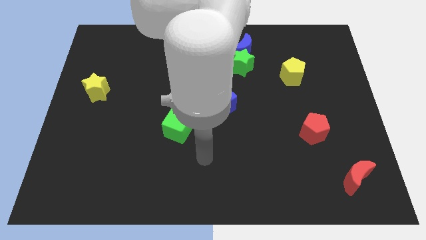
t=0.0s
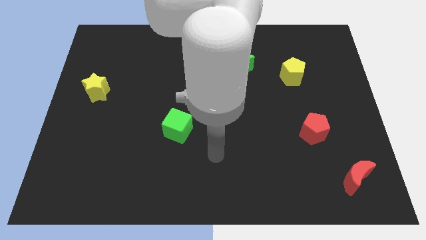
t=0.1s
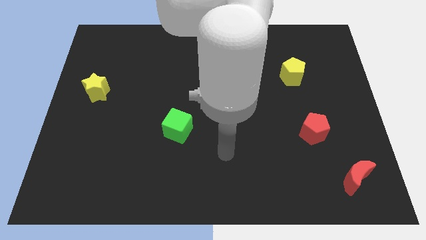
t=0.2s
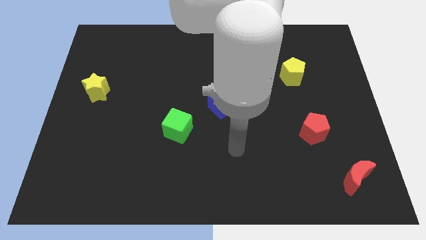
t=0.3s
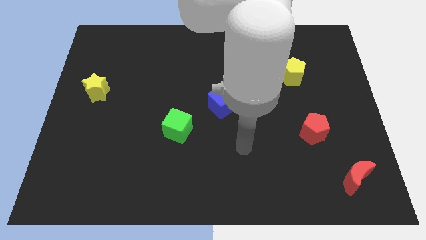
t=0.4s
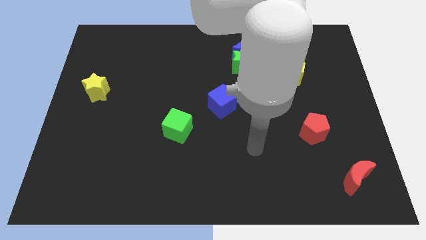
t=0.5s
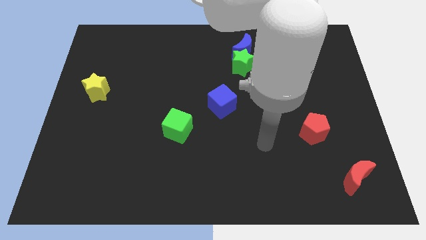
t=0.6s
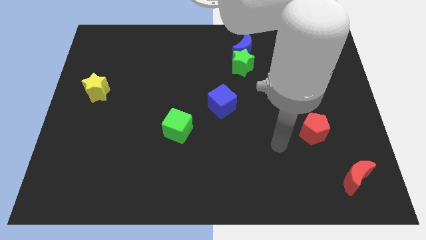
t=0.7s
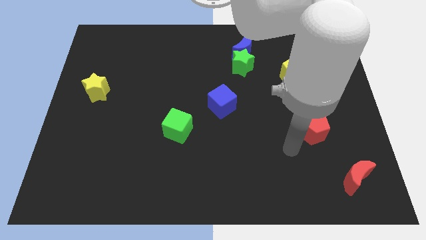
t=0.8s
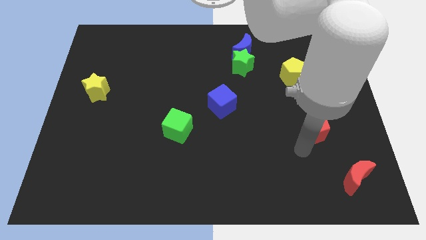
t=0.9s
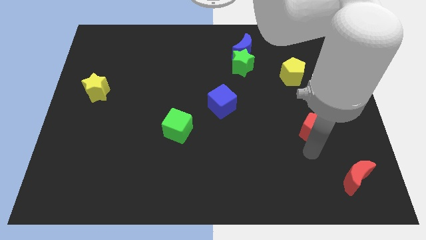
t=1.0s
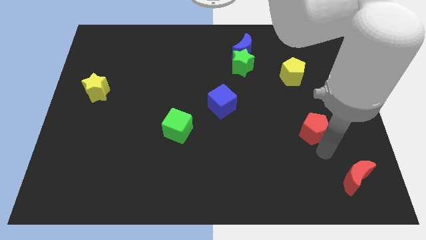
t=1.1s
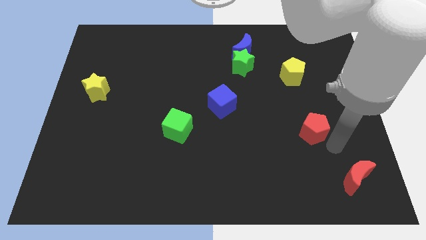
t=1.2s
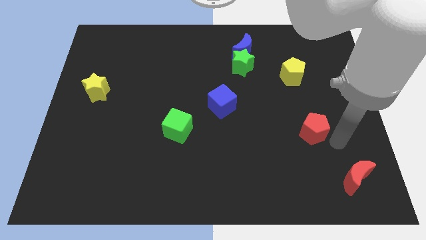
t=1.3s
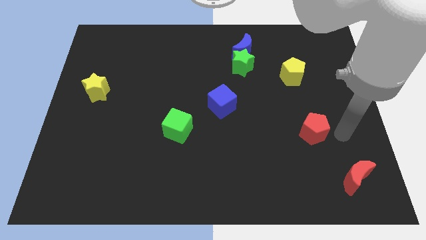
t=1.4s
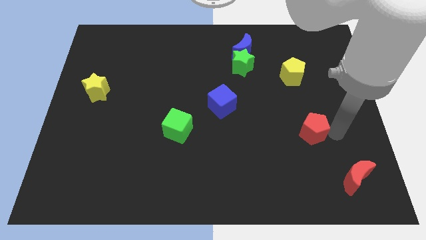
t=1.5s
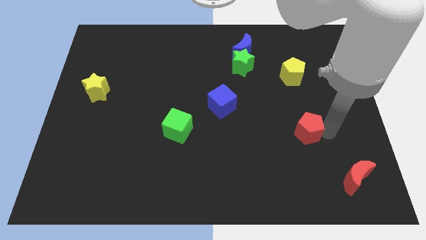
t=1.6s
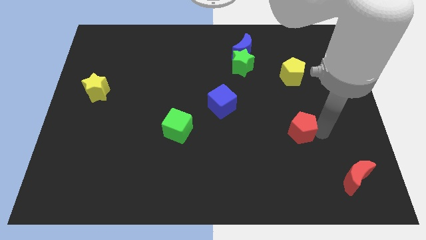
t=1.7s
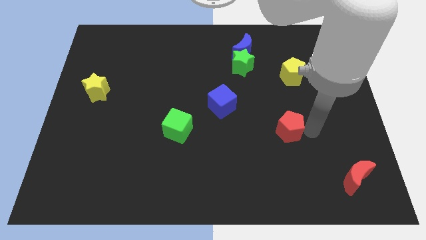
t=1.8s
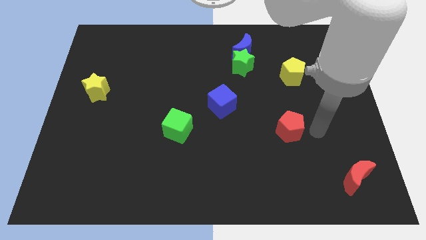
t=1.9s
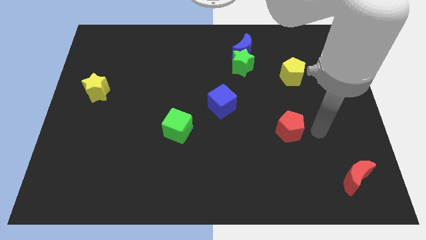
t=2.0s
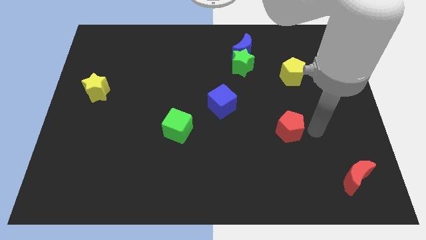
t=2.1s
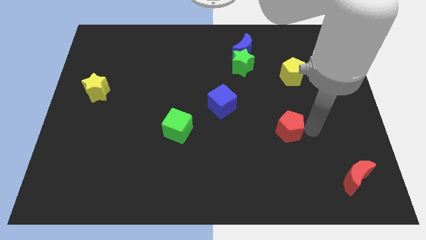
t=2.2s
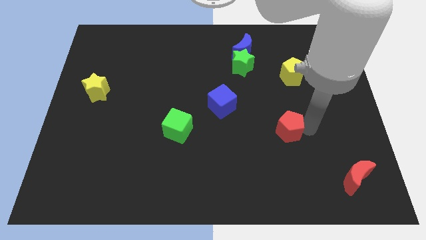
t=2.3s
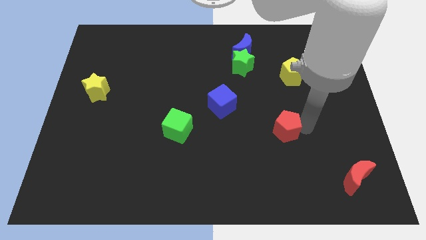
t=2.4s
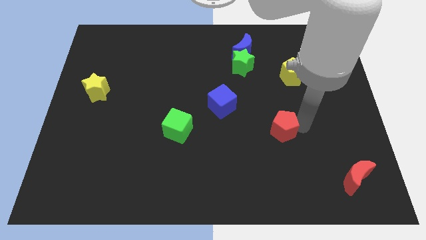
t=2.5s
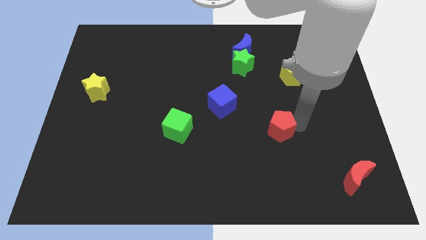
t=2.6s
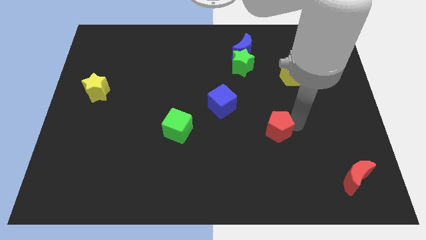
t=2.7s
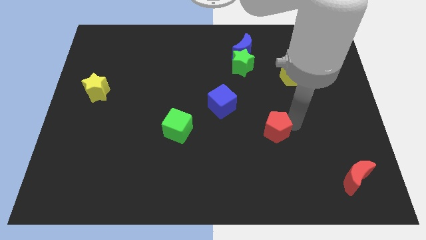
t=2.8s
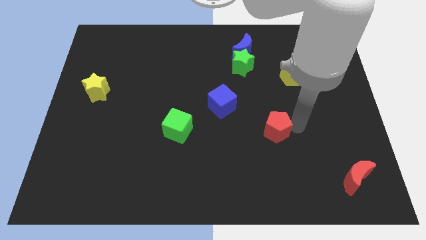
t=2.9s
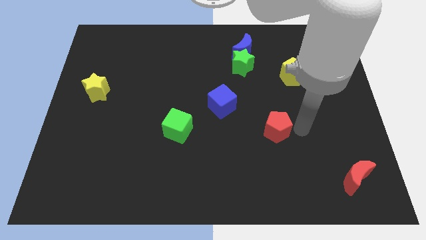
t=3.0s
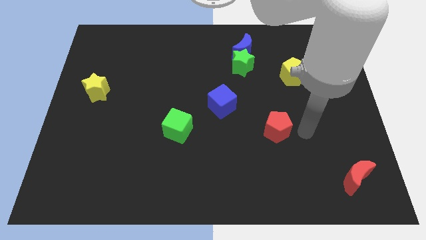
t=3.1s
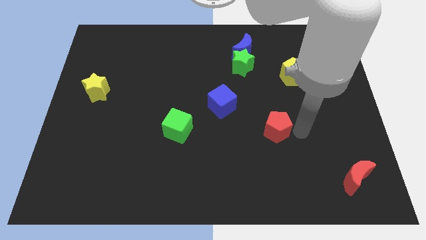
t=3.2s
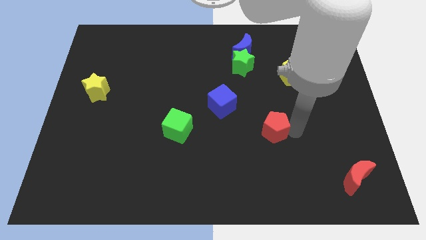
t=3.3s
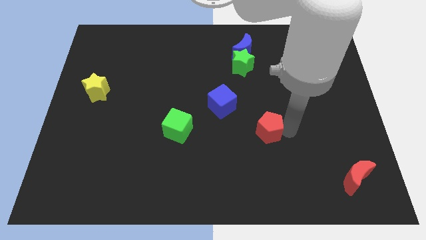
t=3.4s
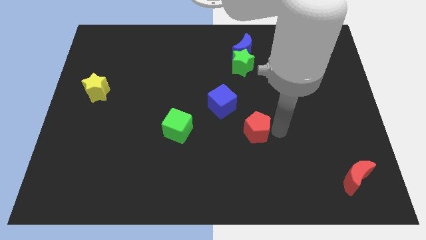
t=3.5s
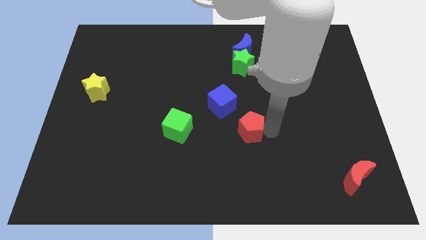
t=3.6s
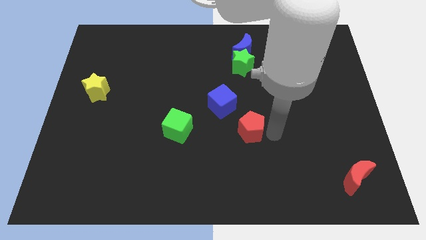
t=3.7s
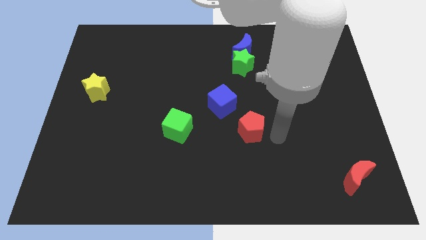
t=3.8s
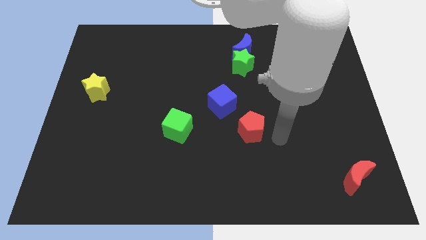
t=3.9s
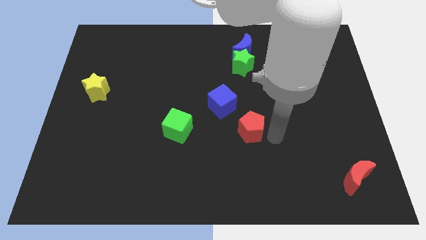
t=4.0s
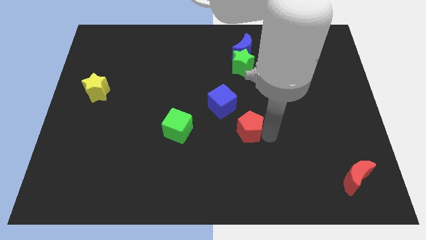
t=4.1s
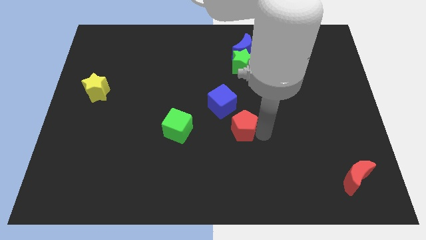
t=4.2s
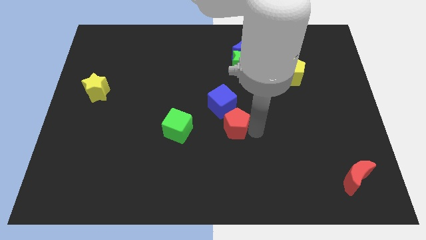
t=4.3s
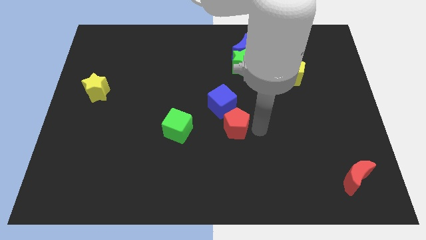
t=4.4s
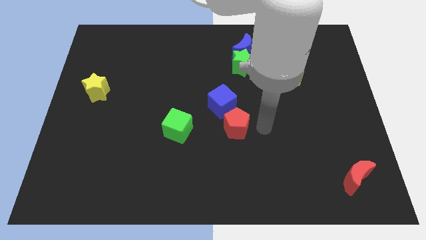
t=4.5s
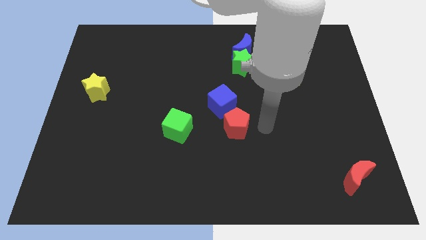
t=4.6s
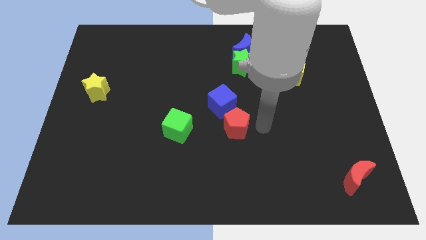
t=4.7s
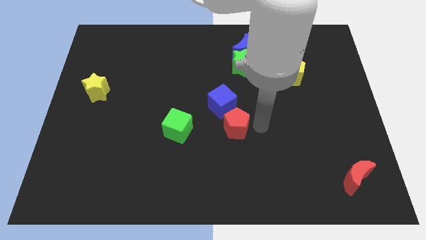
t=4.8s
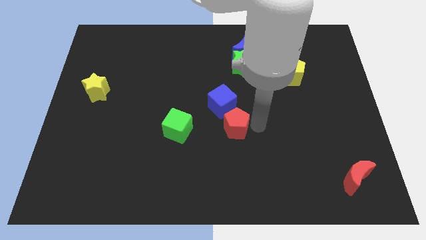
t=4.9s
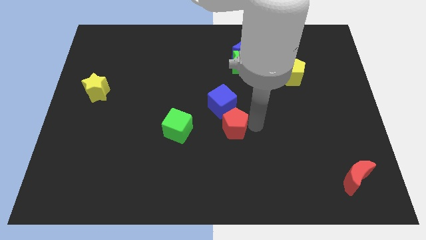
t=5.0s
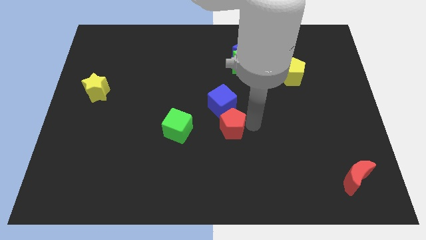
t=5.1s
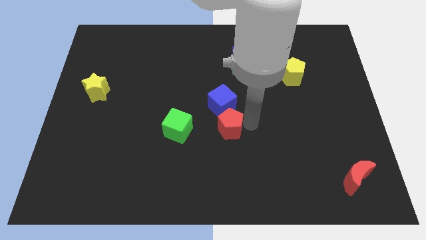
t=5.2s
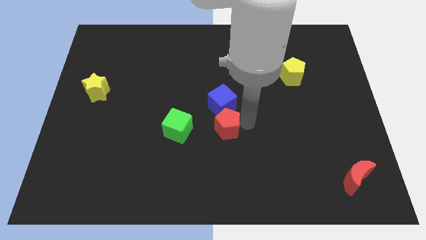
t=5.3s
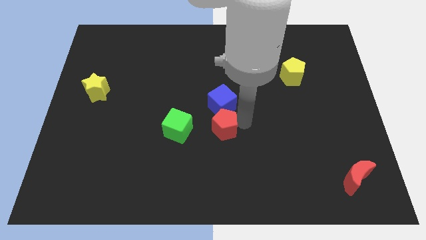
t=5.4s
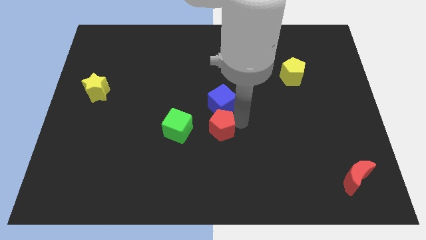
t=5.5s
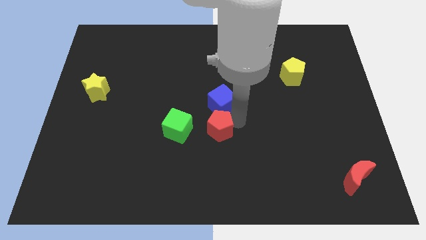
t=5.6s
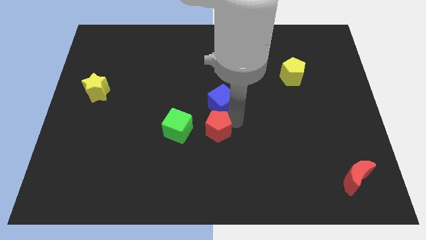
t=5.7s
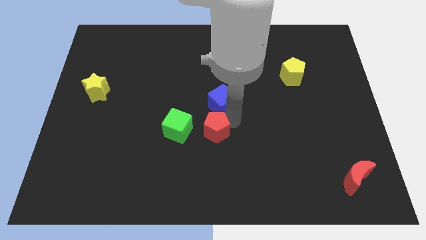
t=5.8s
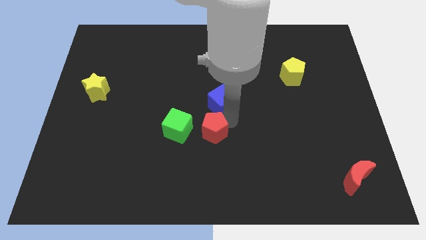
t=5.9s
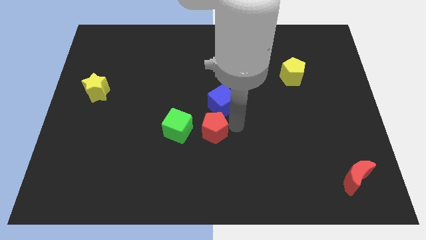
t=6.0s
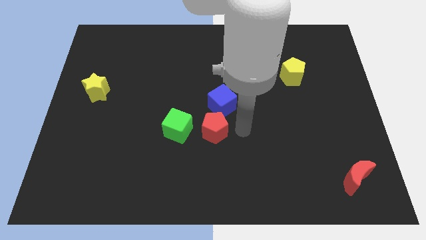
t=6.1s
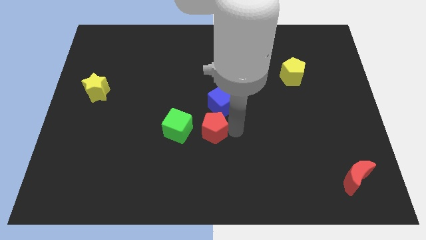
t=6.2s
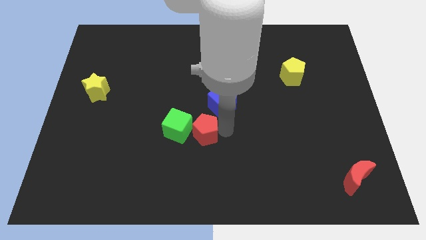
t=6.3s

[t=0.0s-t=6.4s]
push the red pentagon to the green cube

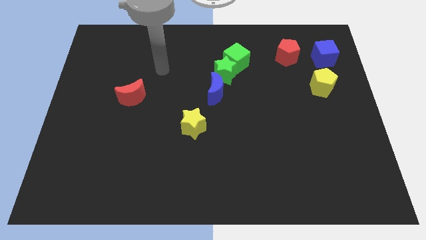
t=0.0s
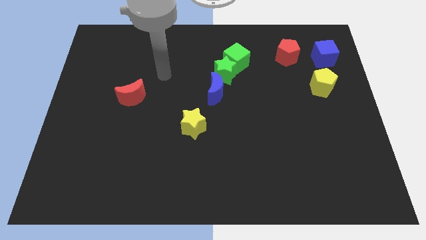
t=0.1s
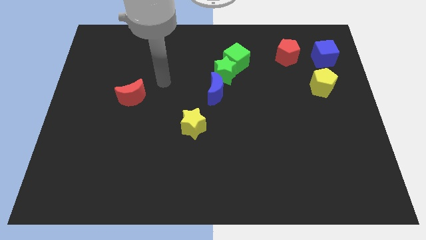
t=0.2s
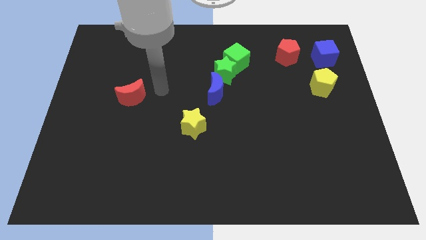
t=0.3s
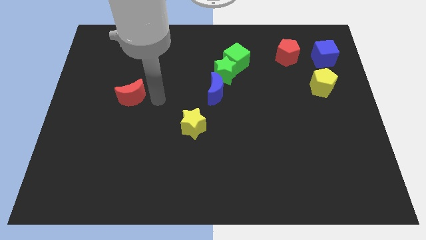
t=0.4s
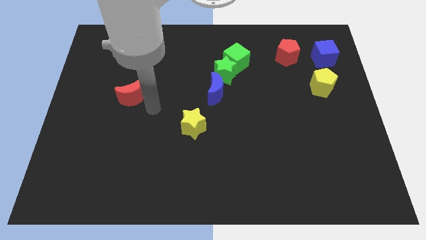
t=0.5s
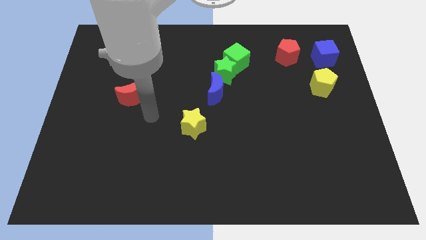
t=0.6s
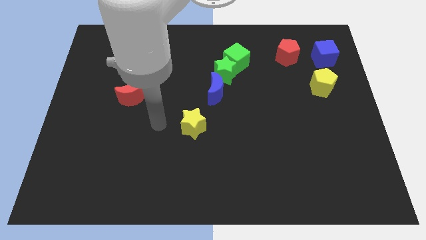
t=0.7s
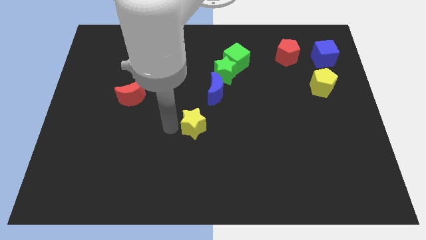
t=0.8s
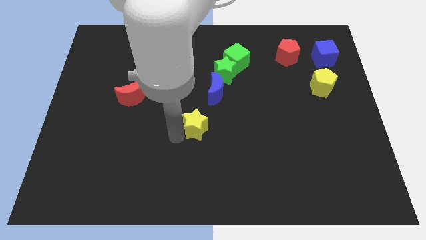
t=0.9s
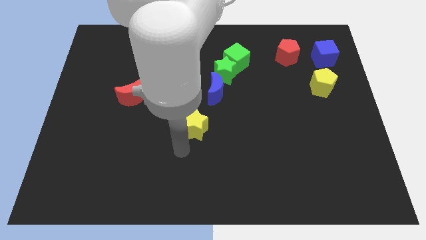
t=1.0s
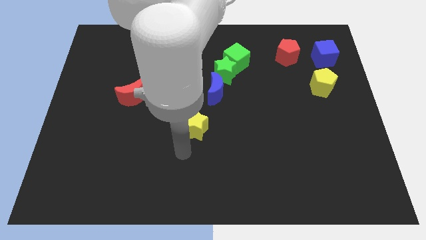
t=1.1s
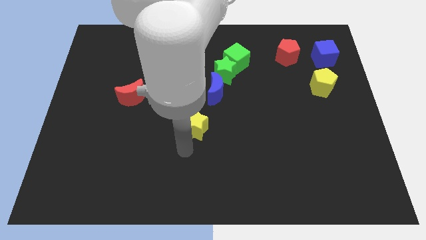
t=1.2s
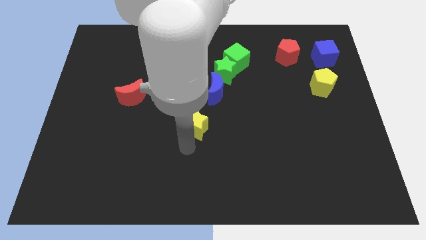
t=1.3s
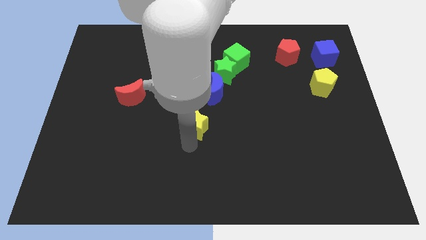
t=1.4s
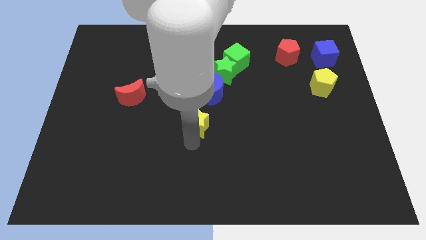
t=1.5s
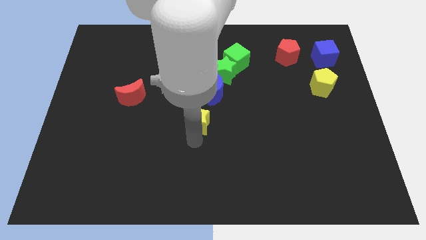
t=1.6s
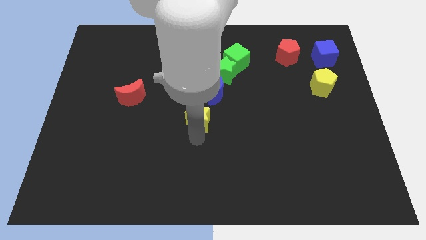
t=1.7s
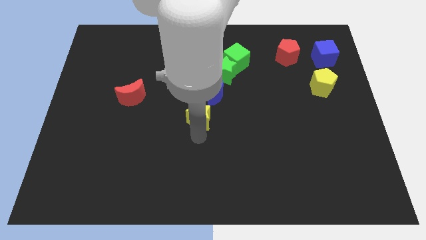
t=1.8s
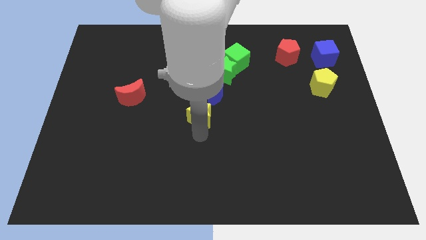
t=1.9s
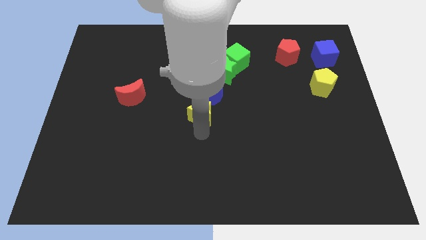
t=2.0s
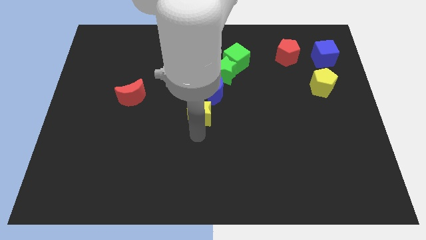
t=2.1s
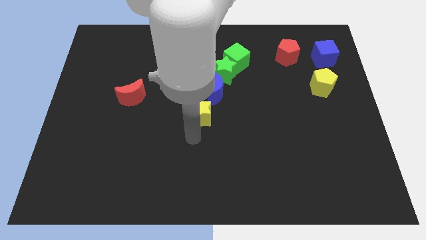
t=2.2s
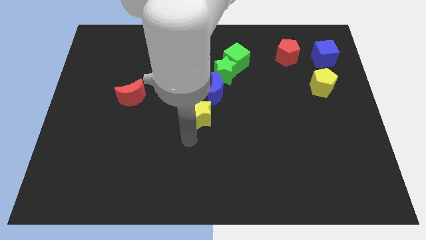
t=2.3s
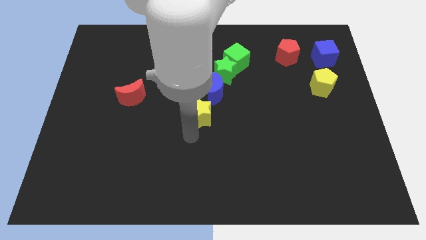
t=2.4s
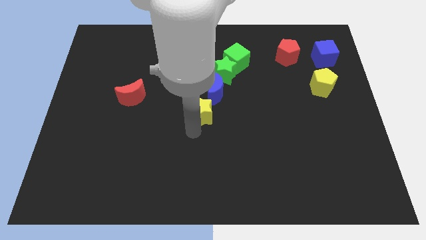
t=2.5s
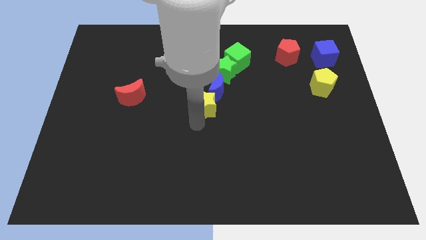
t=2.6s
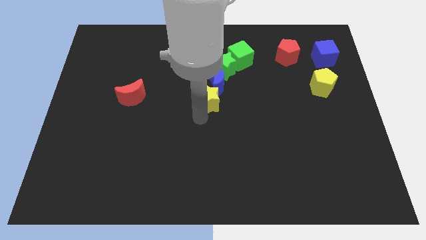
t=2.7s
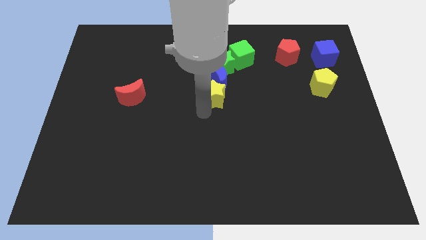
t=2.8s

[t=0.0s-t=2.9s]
put the yellow star towards the blue moon
